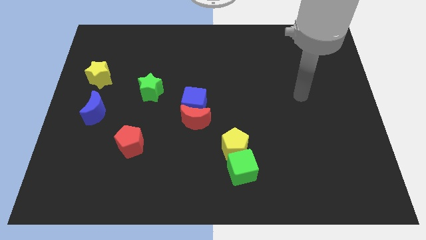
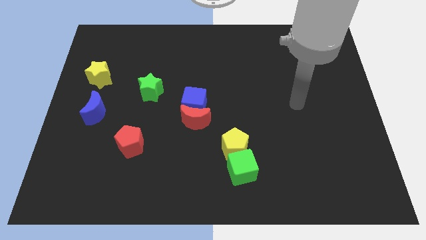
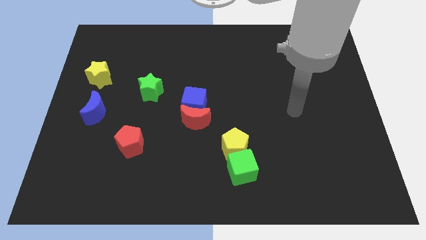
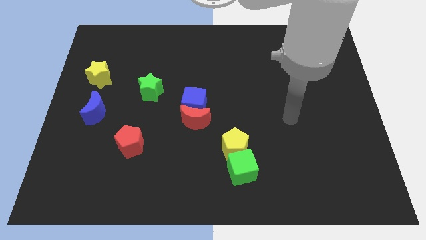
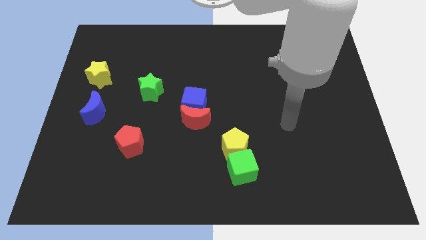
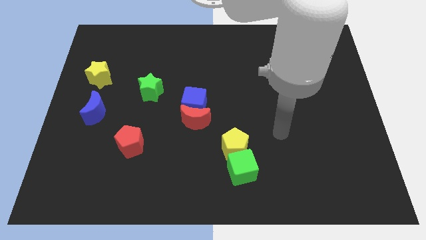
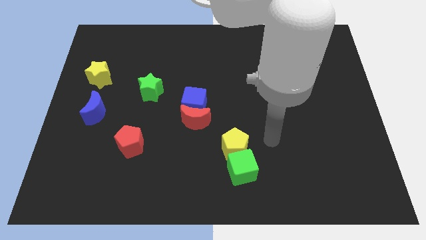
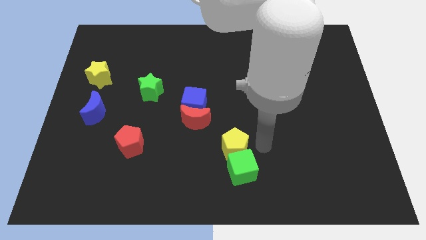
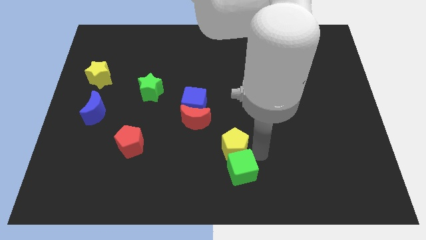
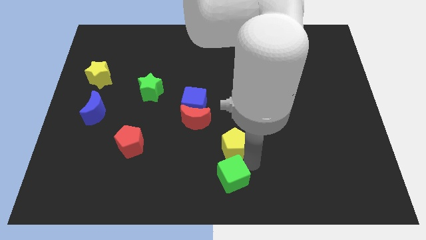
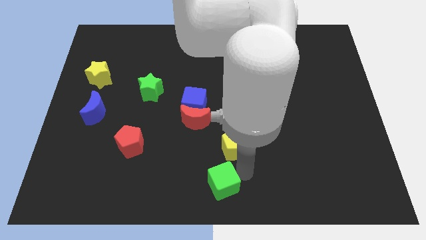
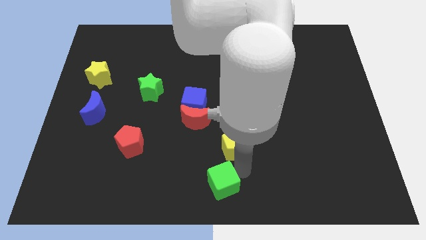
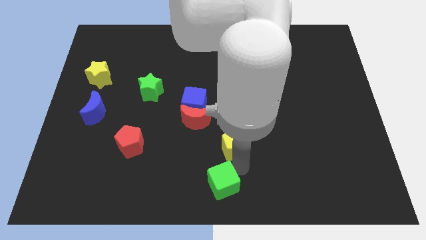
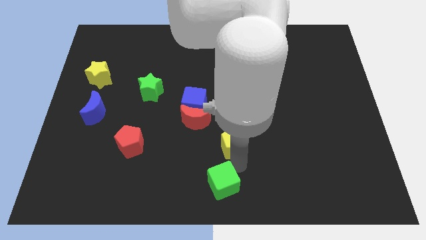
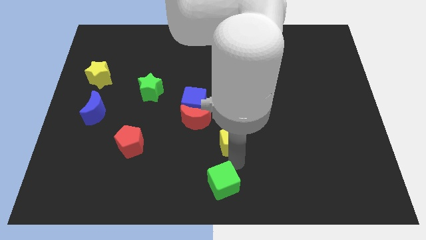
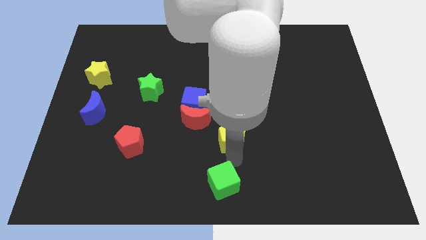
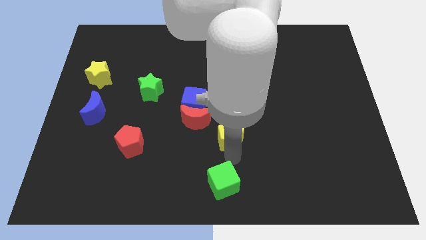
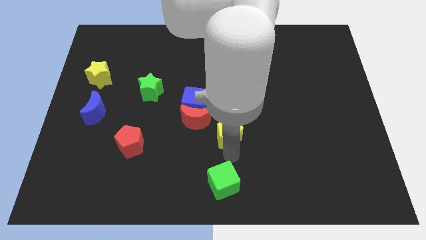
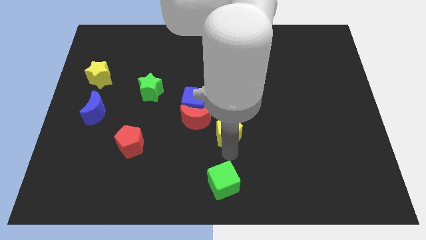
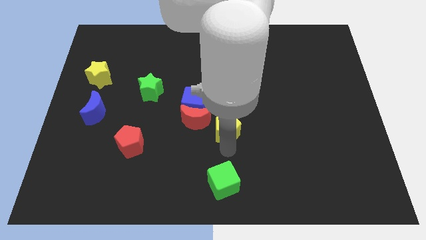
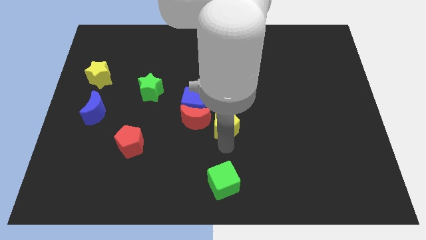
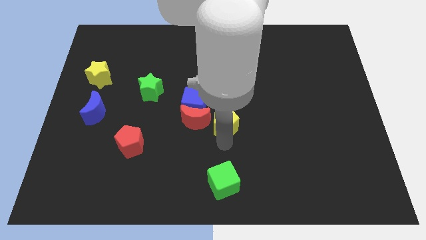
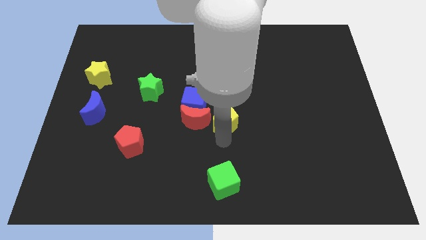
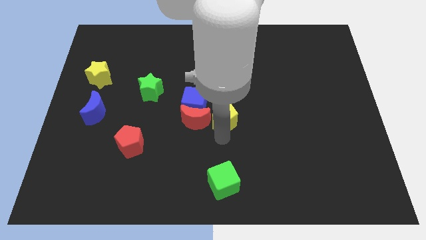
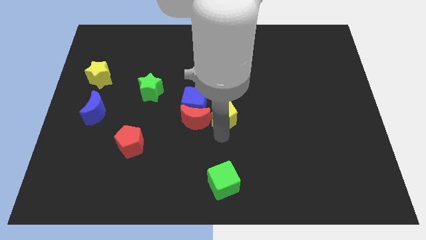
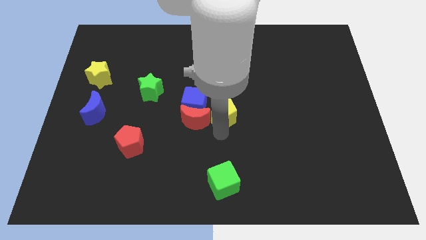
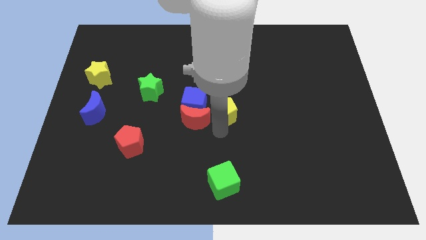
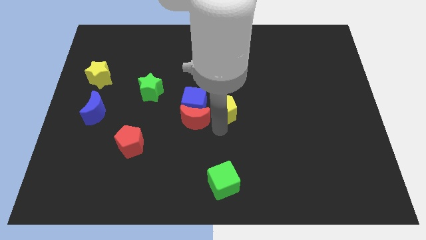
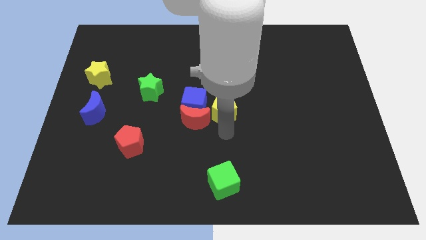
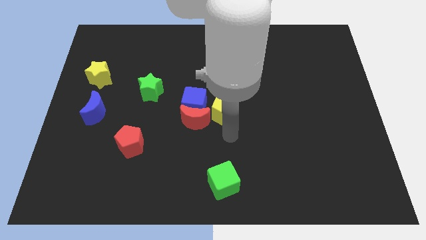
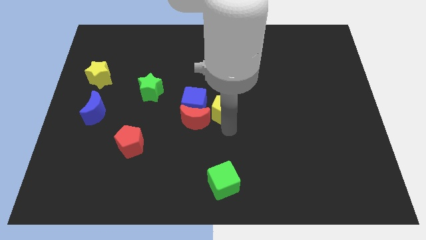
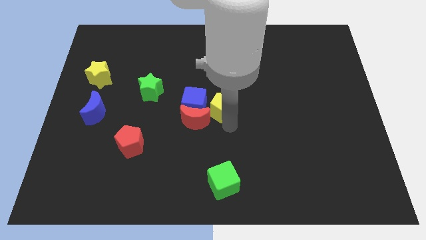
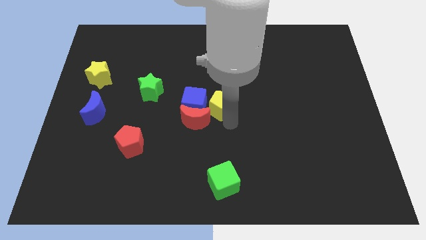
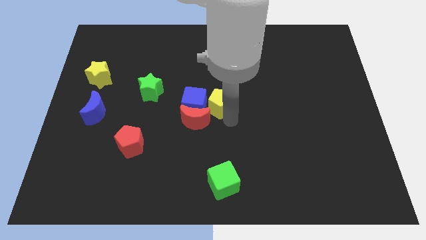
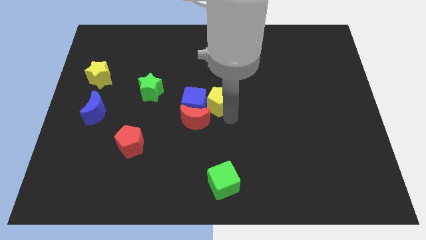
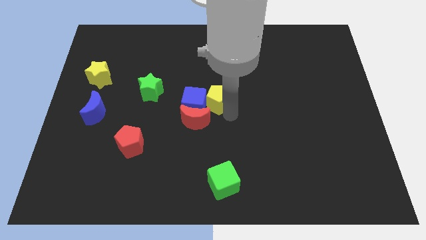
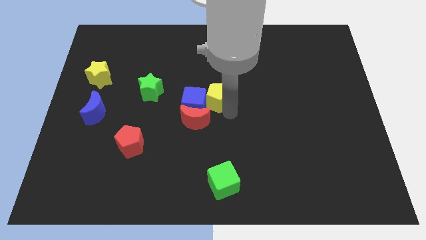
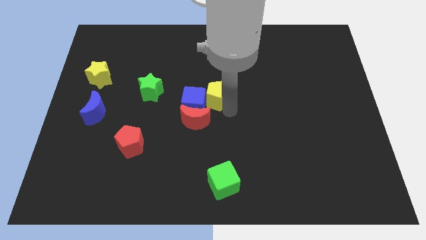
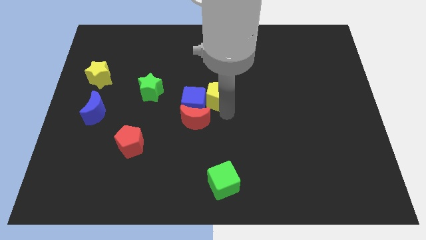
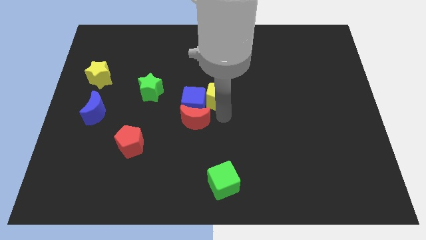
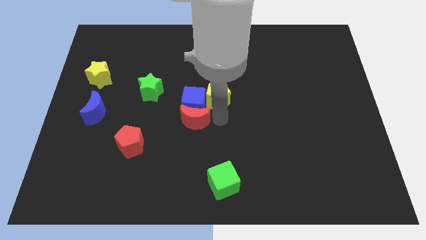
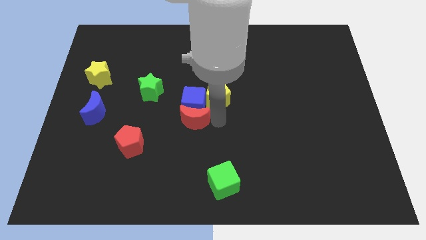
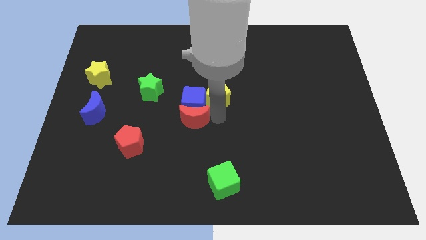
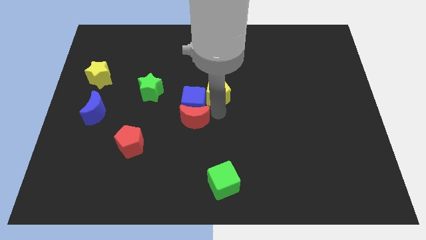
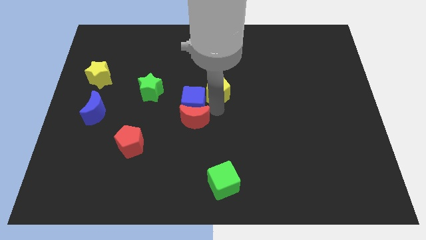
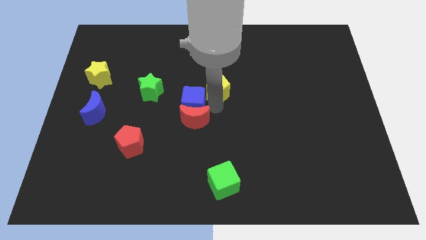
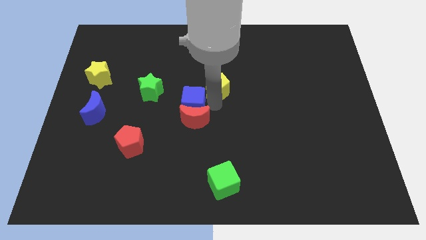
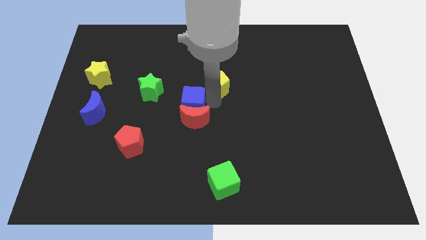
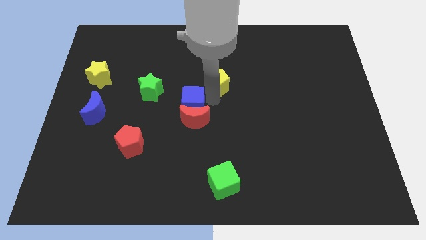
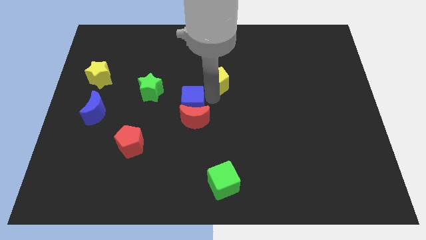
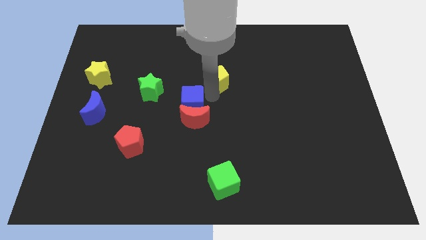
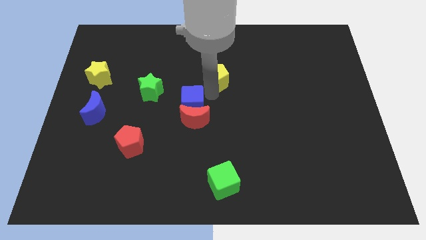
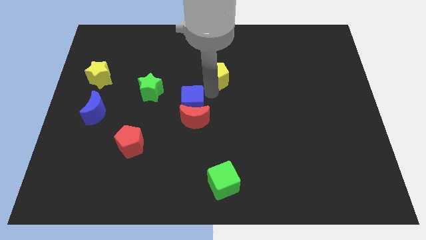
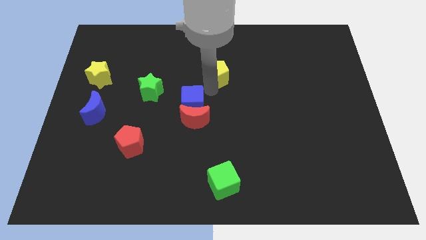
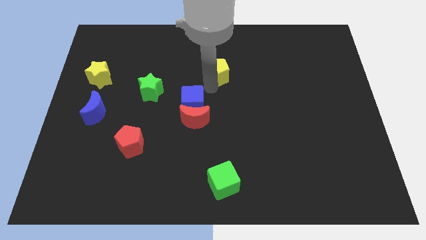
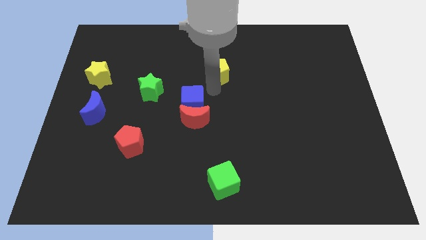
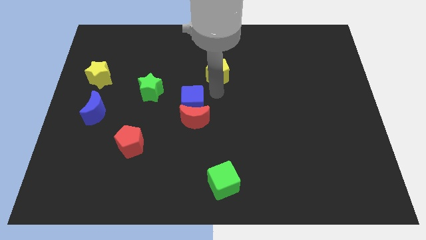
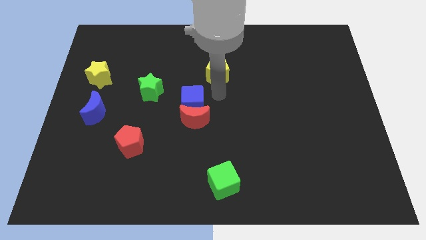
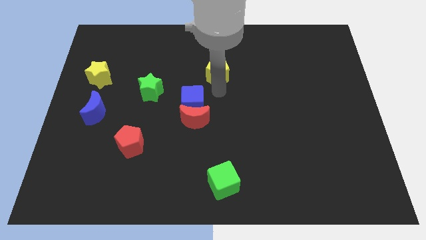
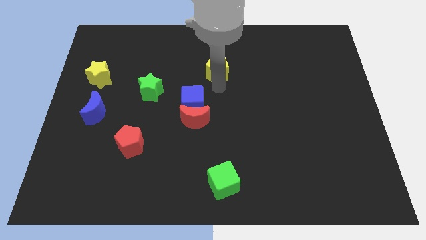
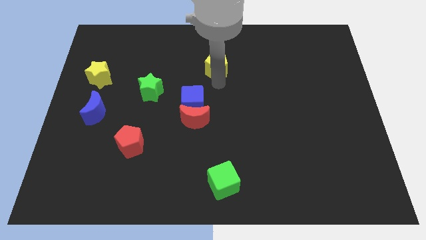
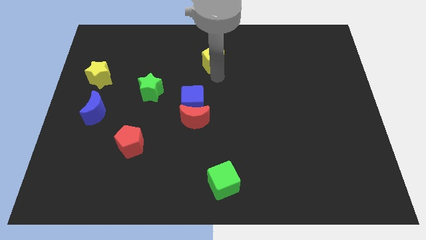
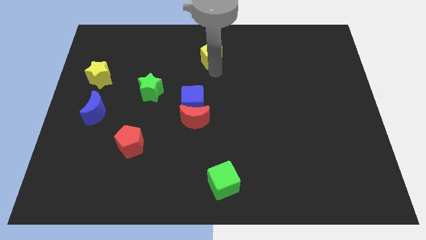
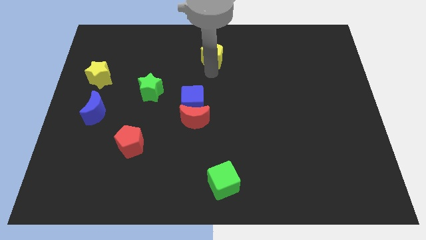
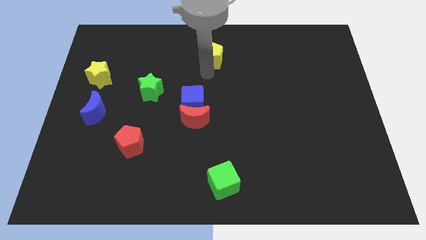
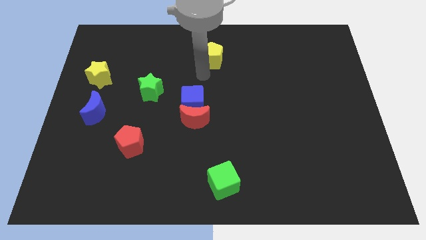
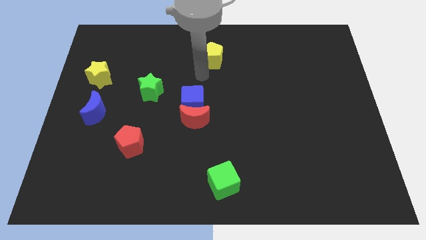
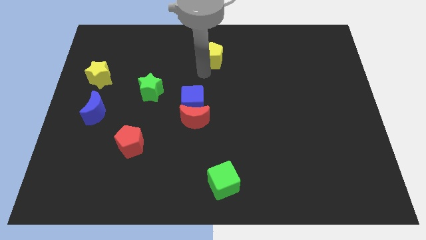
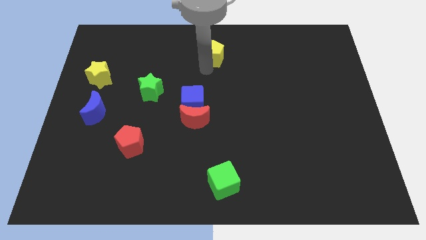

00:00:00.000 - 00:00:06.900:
put the yellow pentagon to the top
